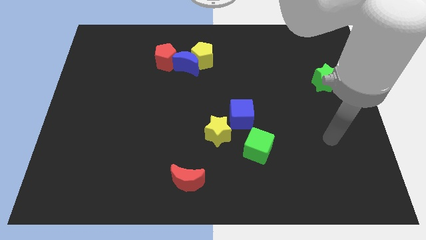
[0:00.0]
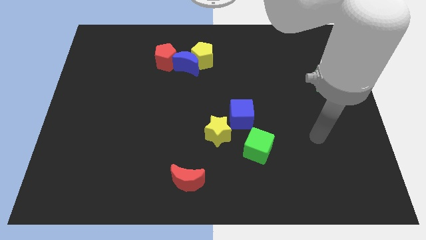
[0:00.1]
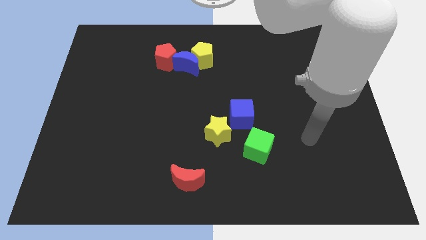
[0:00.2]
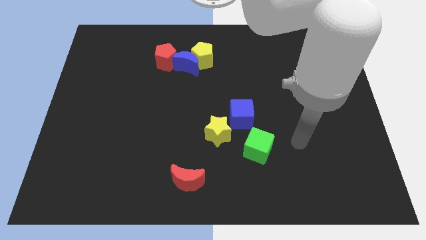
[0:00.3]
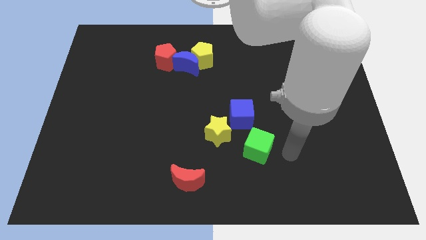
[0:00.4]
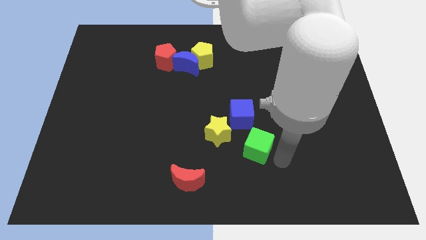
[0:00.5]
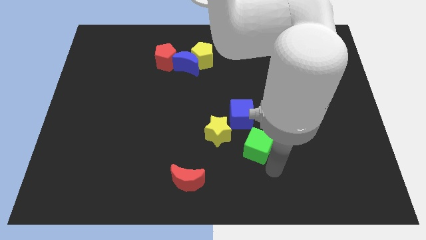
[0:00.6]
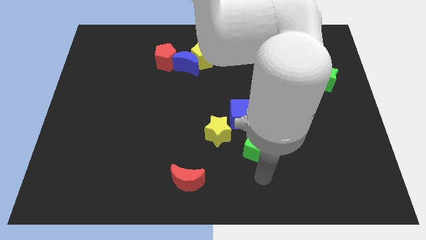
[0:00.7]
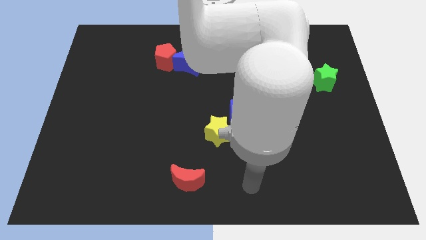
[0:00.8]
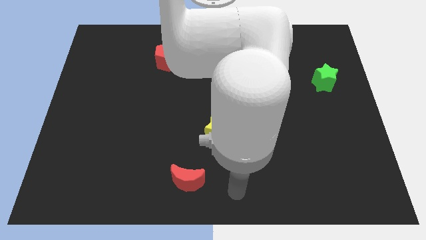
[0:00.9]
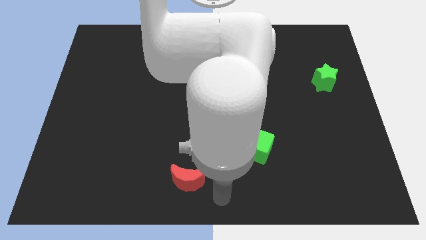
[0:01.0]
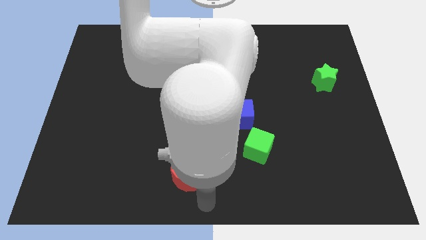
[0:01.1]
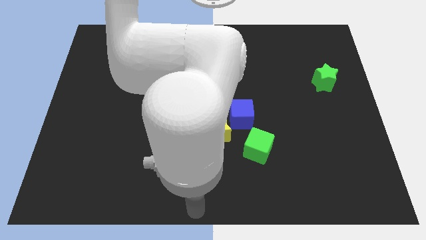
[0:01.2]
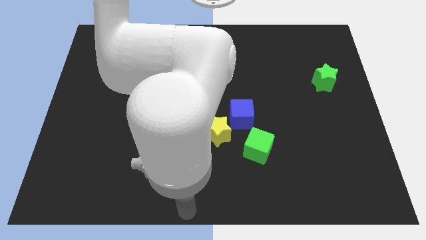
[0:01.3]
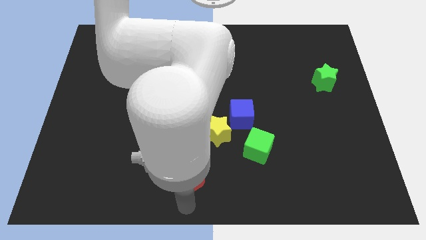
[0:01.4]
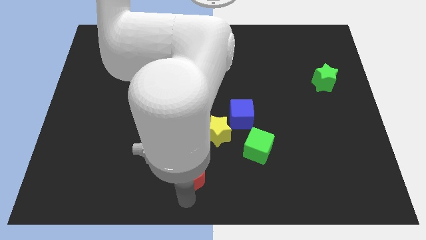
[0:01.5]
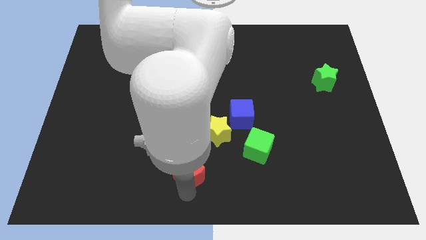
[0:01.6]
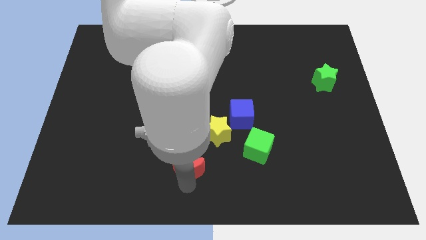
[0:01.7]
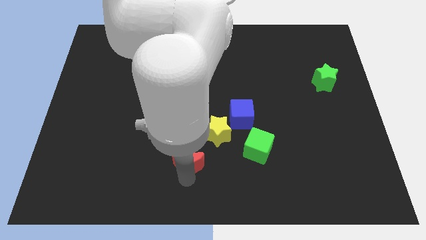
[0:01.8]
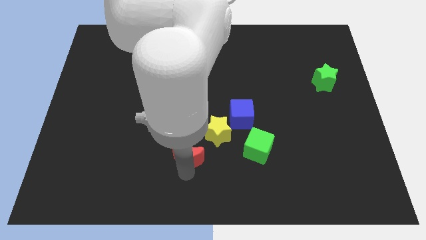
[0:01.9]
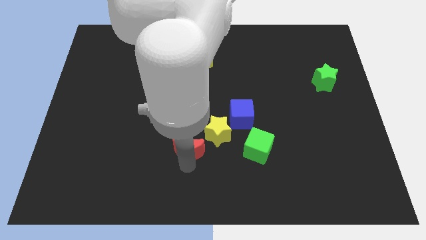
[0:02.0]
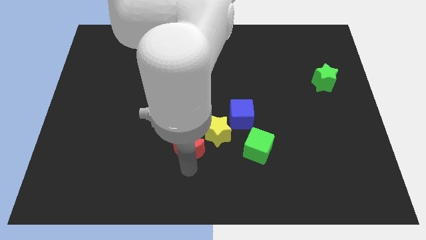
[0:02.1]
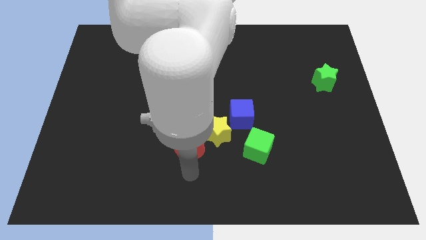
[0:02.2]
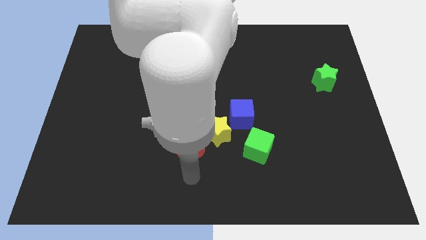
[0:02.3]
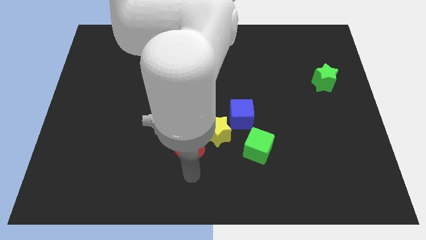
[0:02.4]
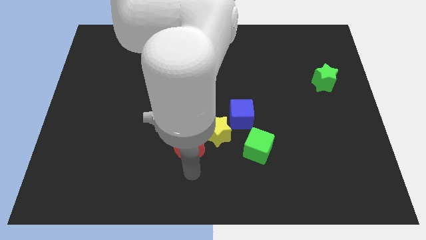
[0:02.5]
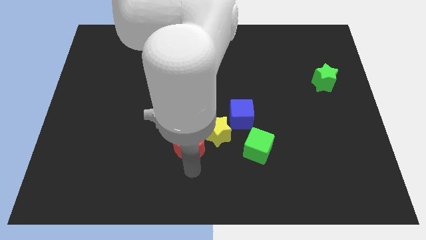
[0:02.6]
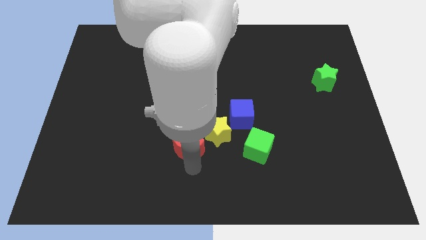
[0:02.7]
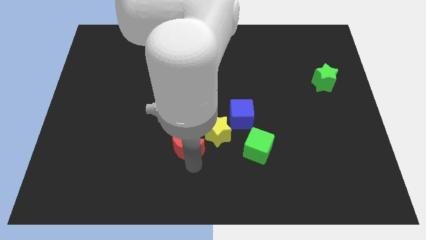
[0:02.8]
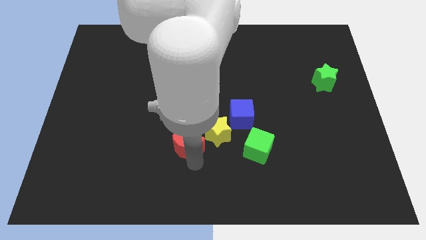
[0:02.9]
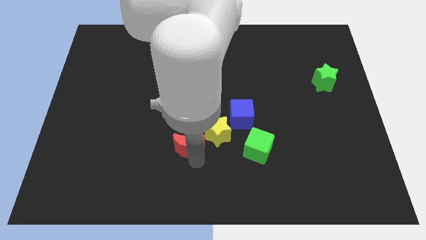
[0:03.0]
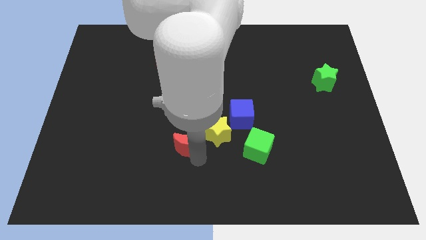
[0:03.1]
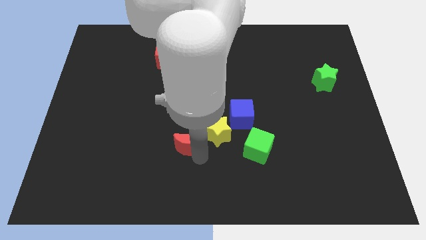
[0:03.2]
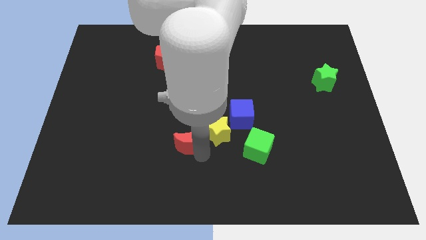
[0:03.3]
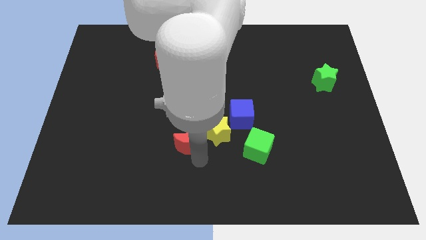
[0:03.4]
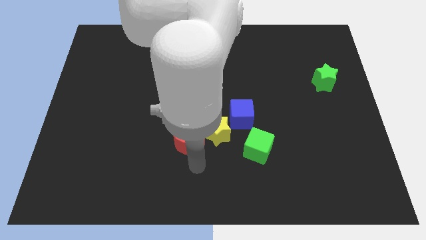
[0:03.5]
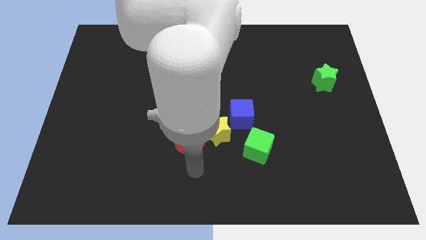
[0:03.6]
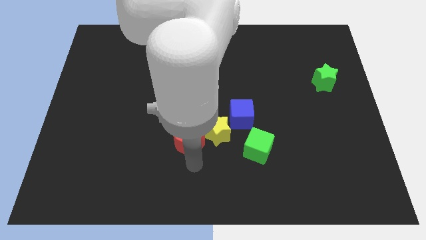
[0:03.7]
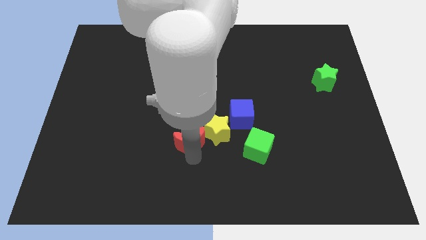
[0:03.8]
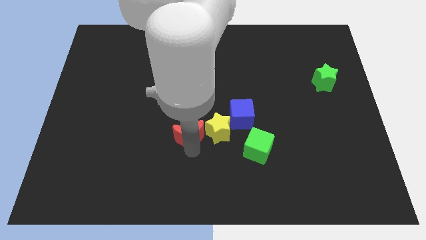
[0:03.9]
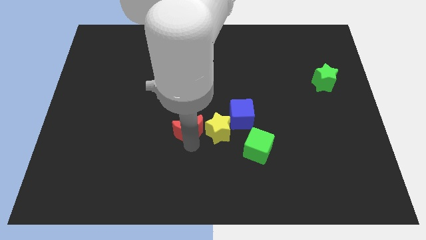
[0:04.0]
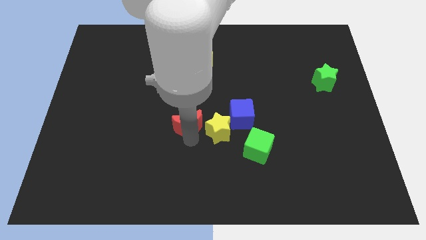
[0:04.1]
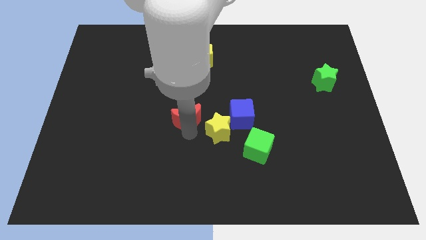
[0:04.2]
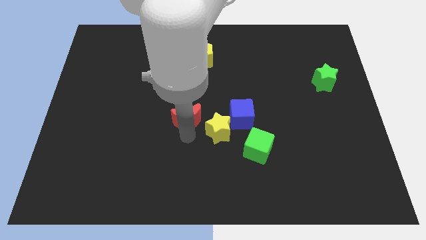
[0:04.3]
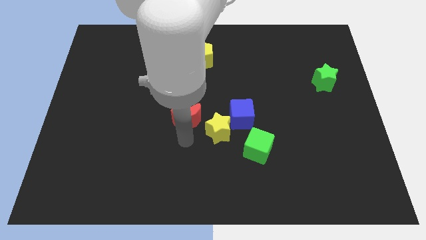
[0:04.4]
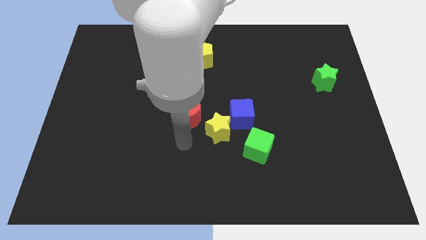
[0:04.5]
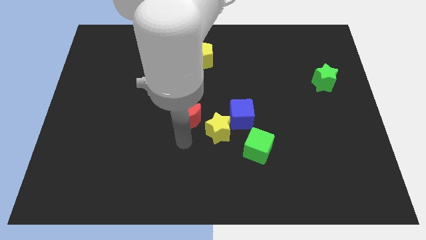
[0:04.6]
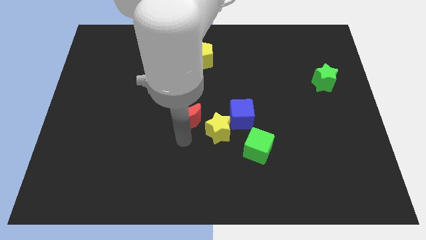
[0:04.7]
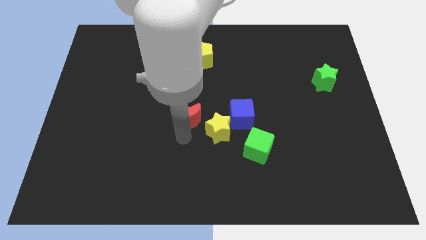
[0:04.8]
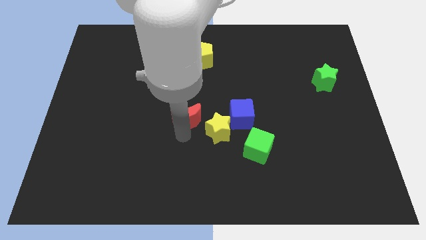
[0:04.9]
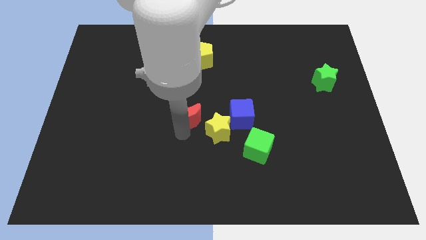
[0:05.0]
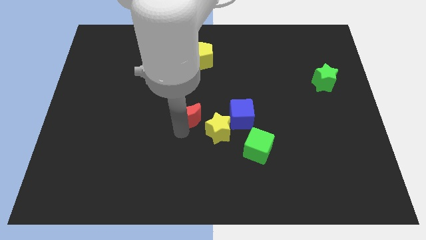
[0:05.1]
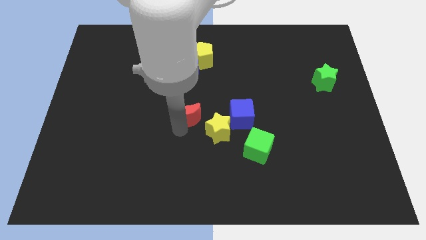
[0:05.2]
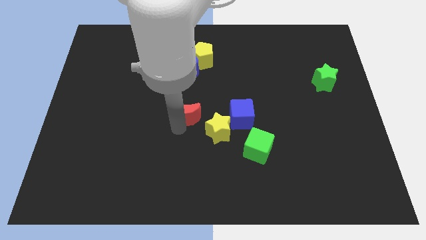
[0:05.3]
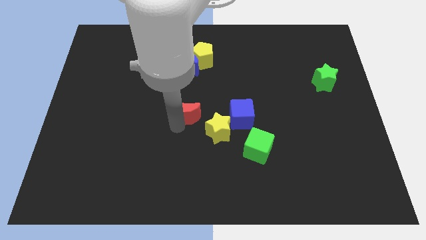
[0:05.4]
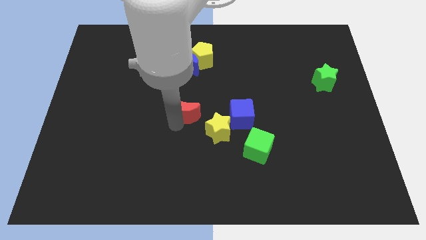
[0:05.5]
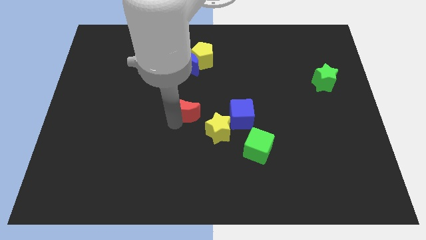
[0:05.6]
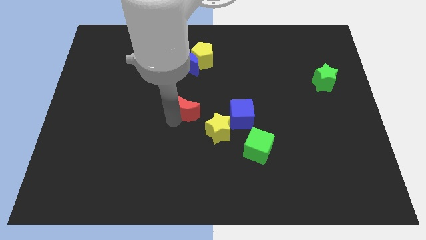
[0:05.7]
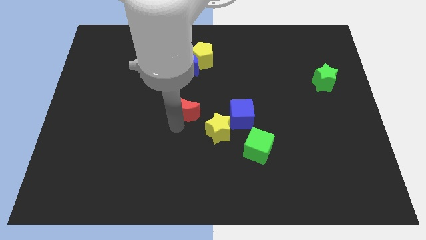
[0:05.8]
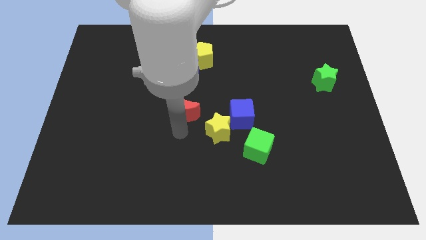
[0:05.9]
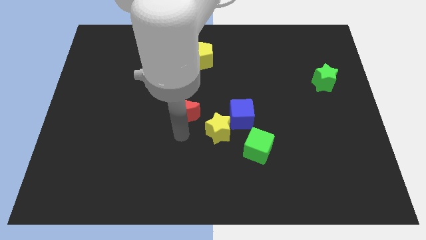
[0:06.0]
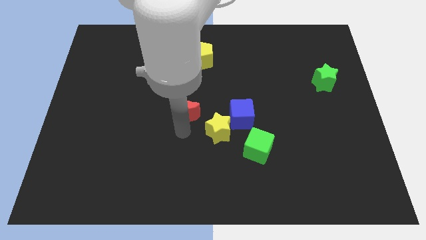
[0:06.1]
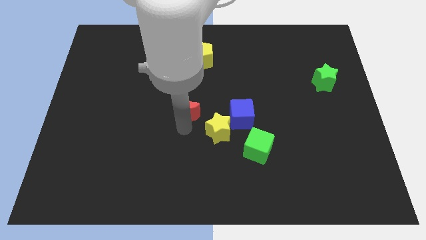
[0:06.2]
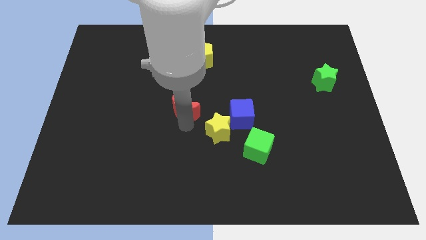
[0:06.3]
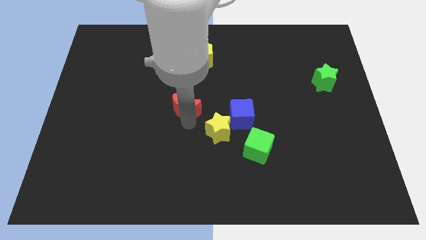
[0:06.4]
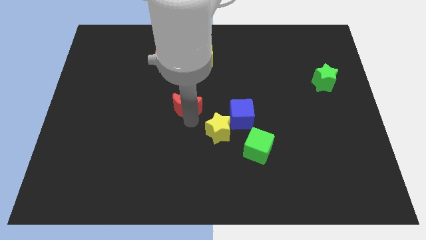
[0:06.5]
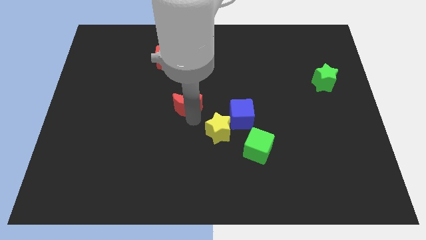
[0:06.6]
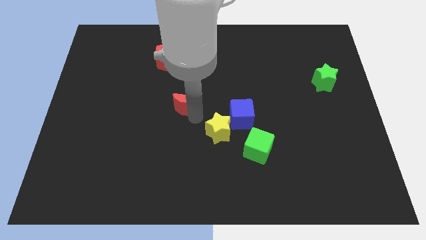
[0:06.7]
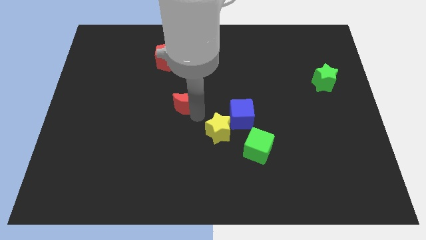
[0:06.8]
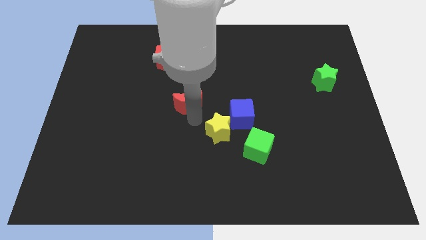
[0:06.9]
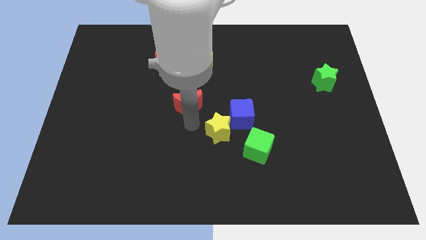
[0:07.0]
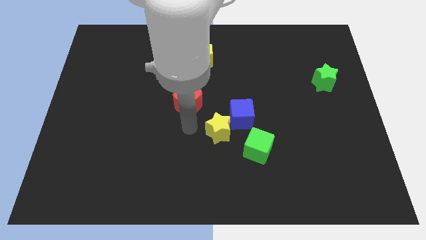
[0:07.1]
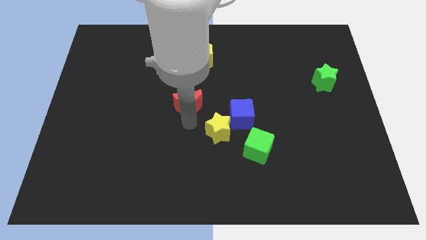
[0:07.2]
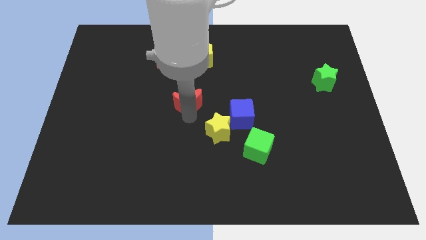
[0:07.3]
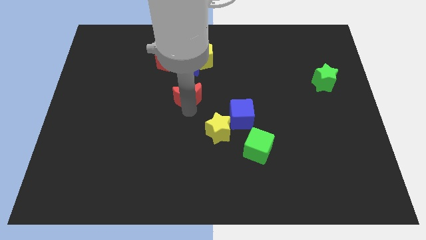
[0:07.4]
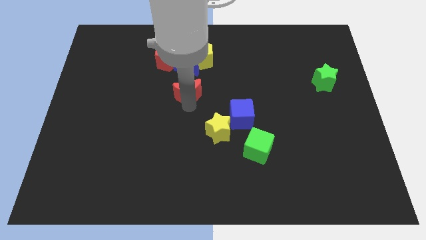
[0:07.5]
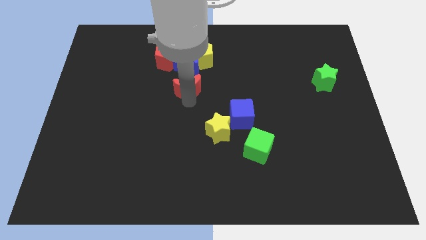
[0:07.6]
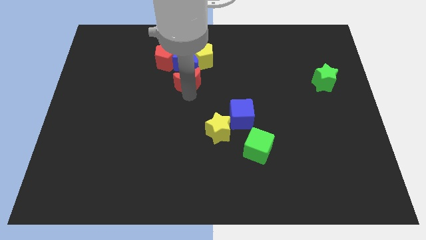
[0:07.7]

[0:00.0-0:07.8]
put the red moon to the blue moon
